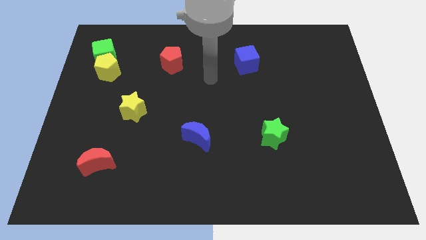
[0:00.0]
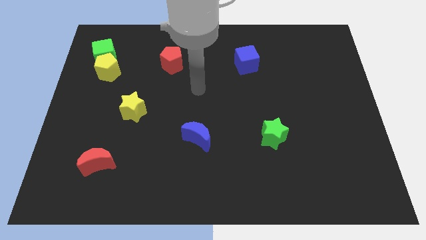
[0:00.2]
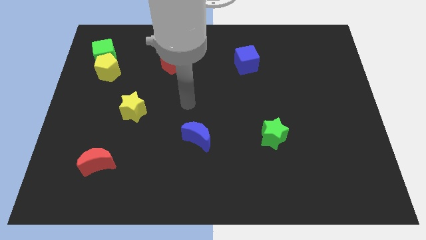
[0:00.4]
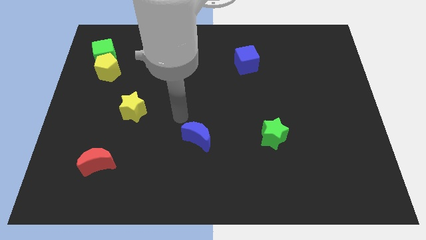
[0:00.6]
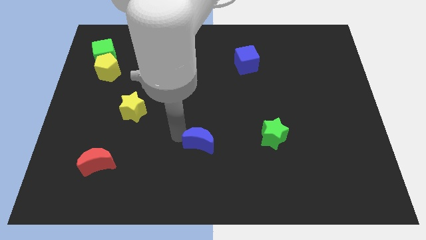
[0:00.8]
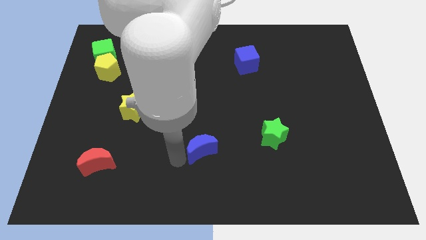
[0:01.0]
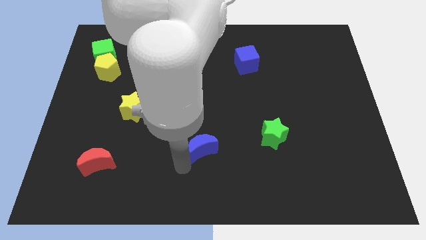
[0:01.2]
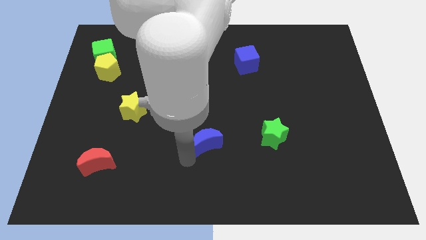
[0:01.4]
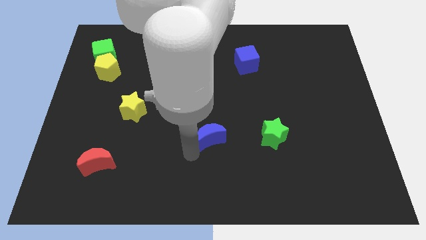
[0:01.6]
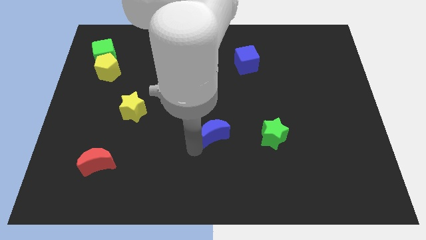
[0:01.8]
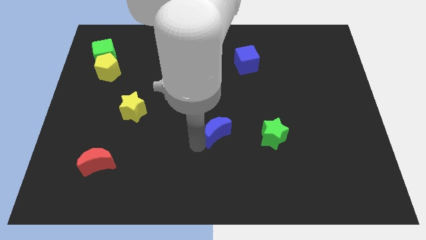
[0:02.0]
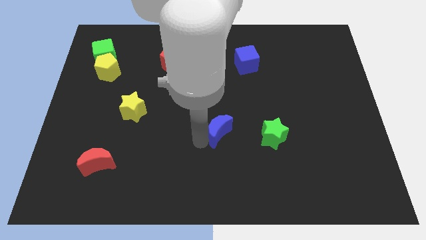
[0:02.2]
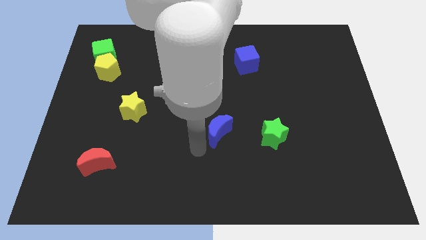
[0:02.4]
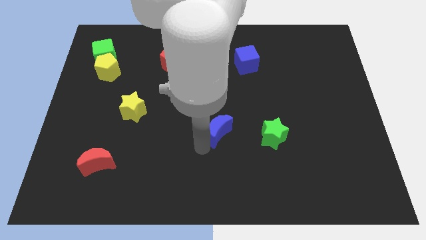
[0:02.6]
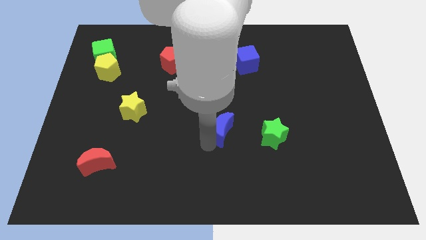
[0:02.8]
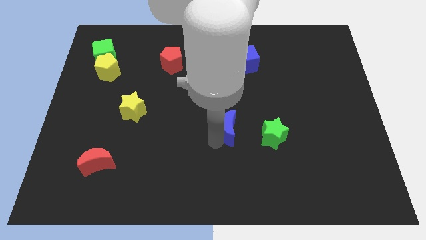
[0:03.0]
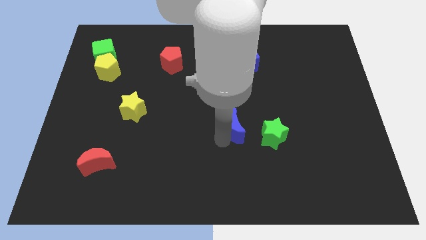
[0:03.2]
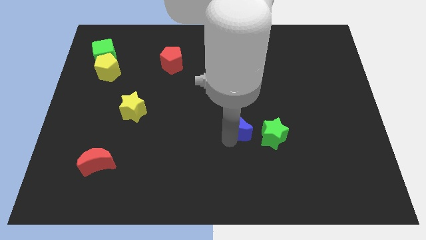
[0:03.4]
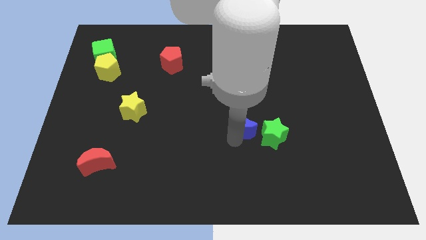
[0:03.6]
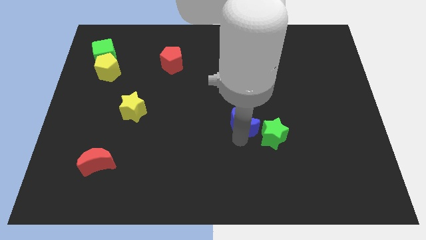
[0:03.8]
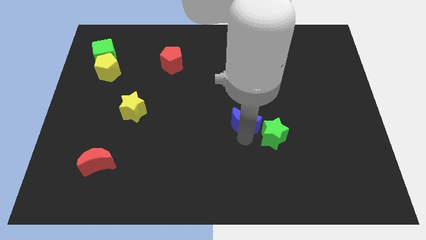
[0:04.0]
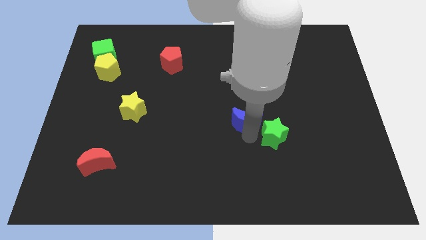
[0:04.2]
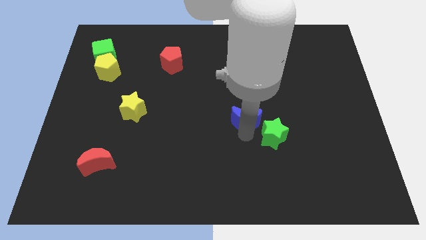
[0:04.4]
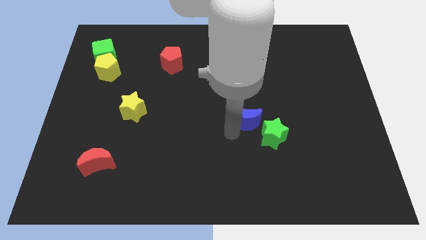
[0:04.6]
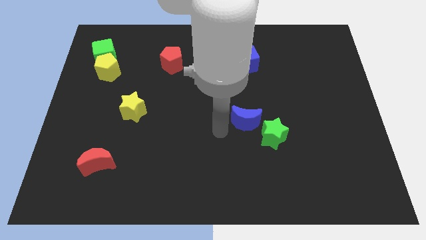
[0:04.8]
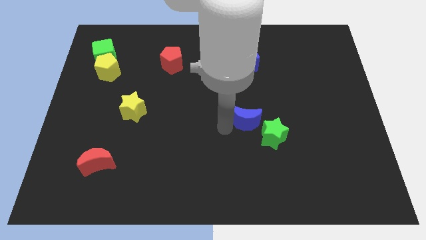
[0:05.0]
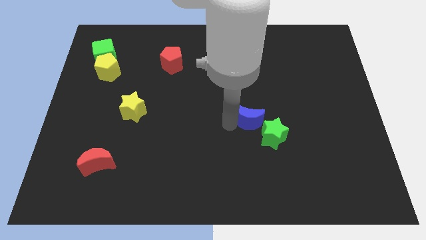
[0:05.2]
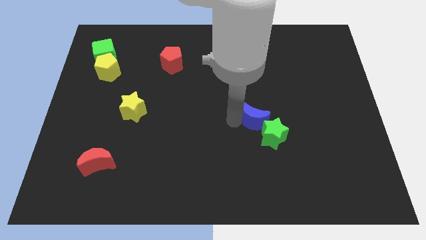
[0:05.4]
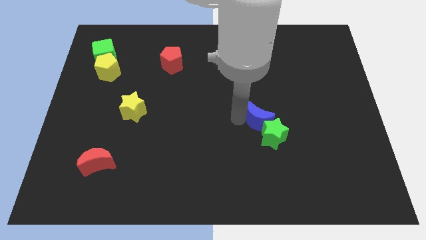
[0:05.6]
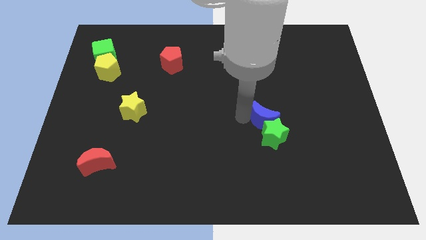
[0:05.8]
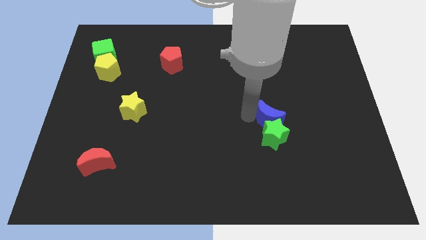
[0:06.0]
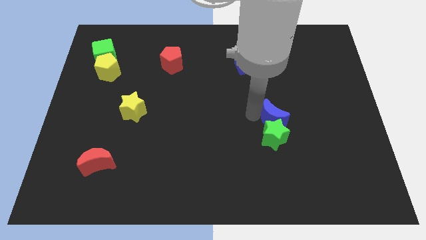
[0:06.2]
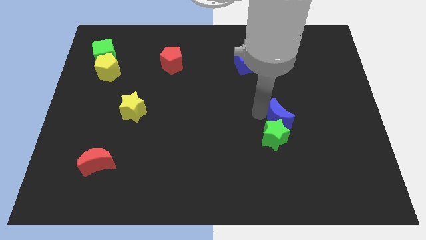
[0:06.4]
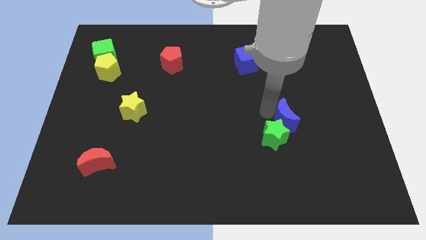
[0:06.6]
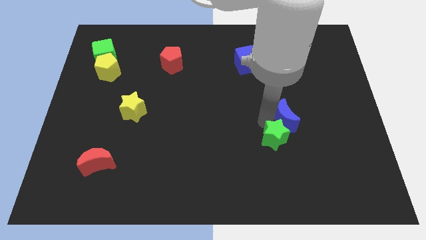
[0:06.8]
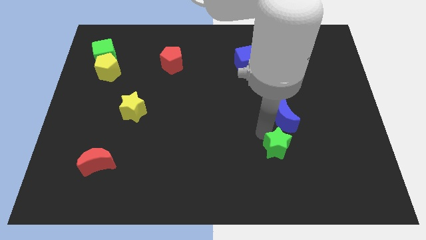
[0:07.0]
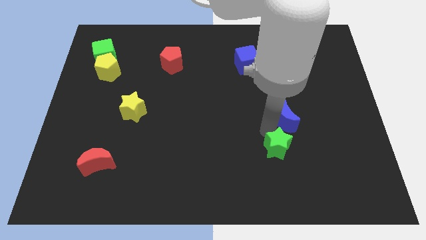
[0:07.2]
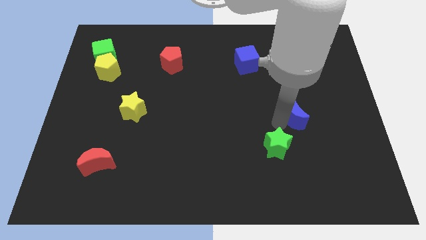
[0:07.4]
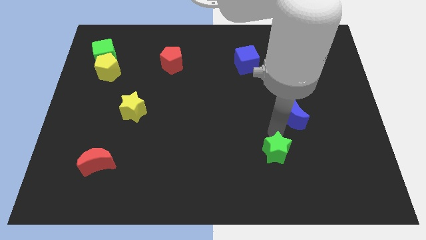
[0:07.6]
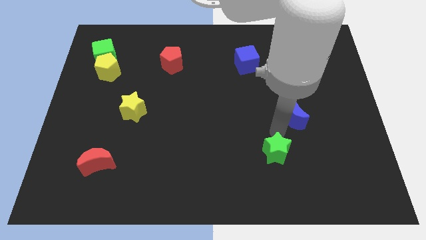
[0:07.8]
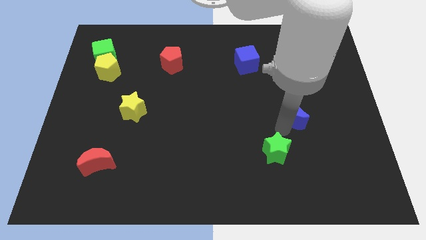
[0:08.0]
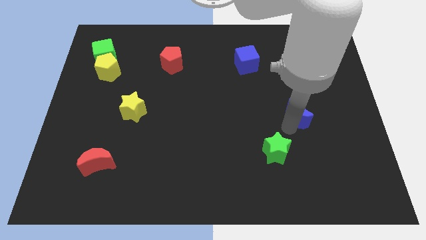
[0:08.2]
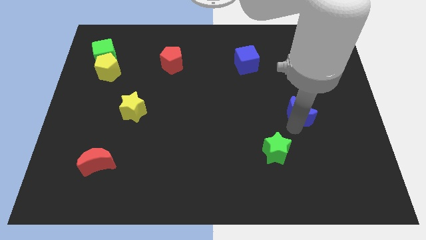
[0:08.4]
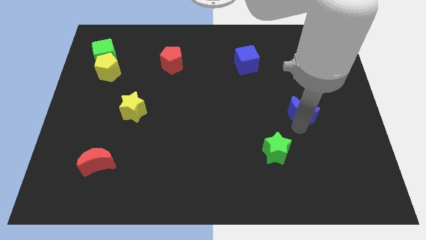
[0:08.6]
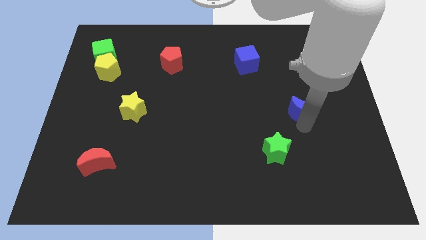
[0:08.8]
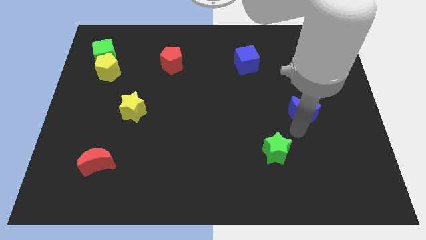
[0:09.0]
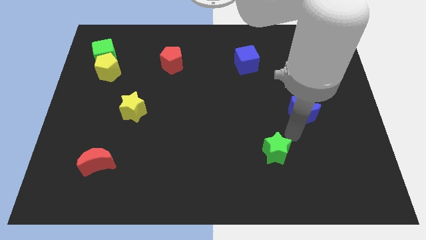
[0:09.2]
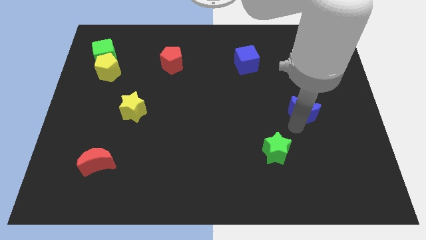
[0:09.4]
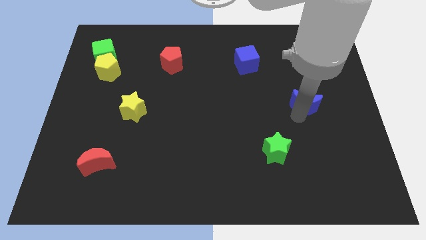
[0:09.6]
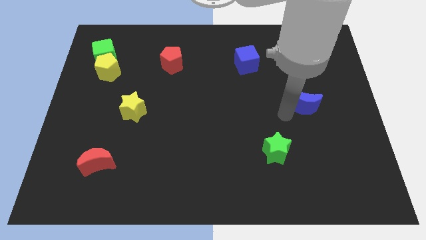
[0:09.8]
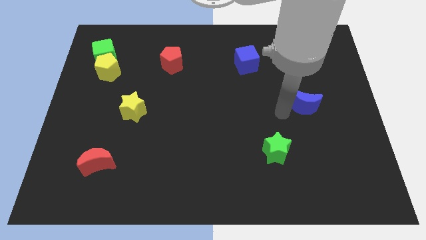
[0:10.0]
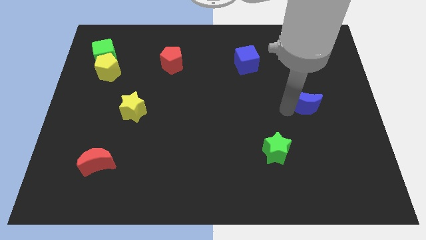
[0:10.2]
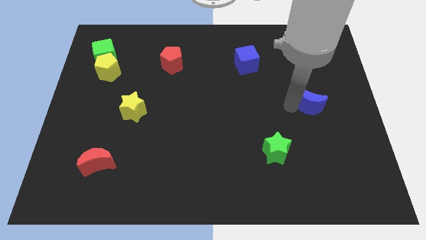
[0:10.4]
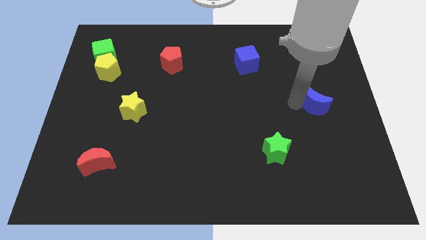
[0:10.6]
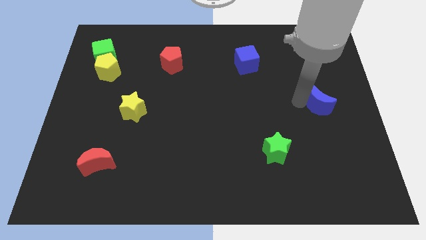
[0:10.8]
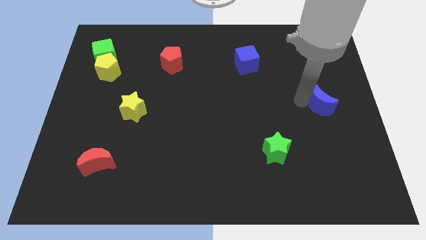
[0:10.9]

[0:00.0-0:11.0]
put the blue moon to the center right

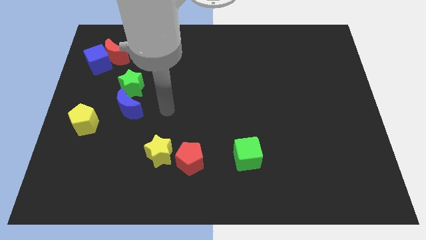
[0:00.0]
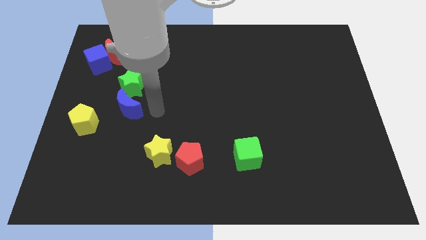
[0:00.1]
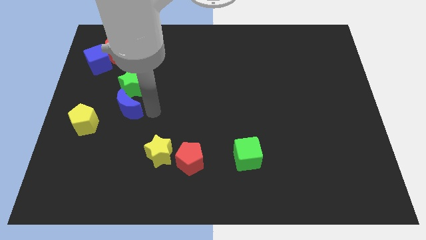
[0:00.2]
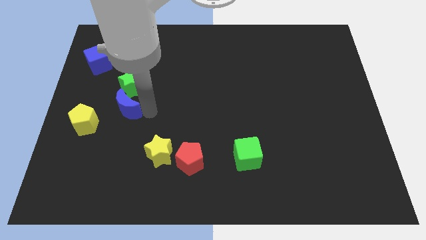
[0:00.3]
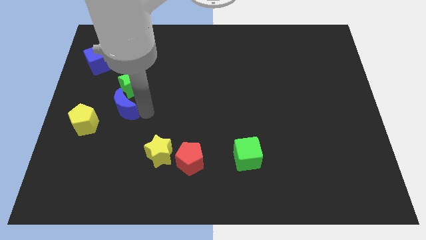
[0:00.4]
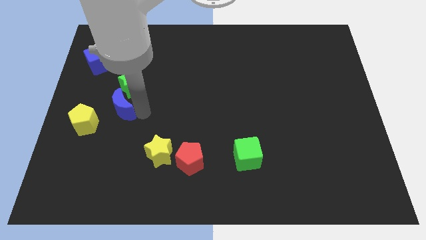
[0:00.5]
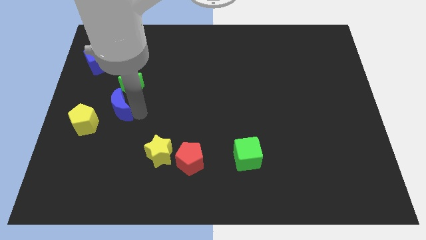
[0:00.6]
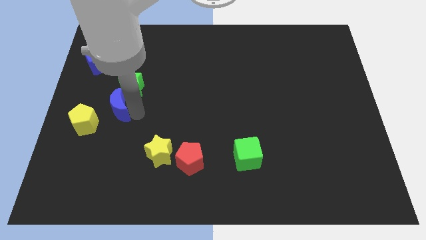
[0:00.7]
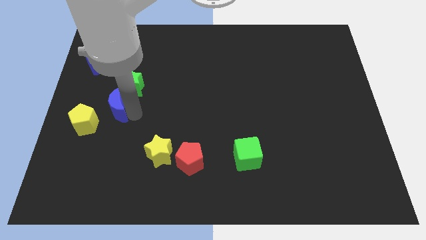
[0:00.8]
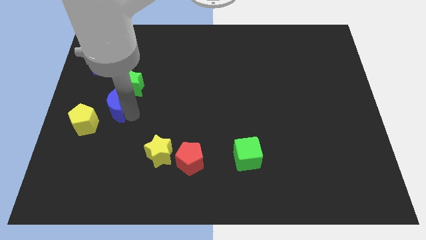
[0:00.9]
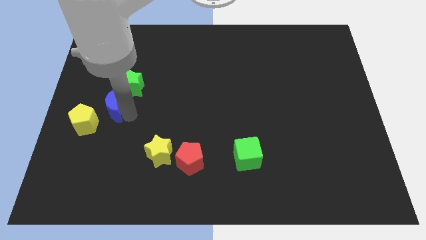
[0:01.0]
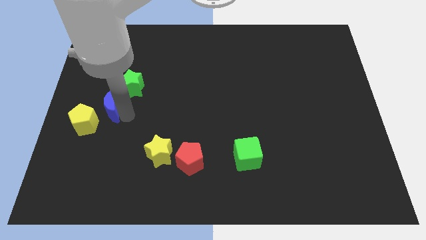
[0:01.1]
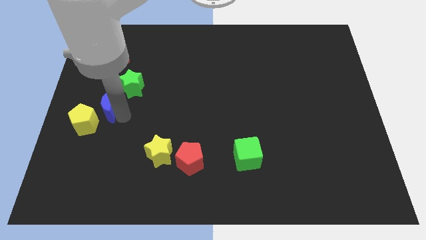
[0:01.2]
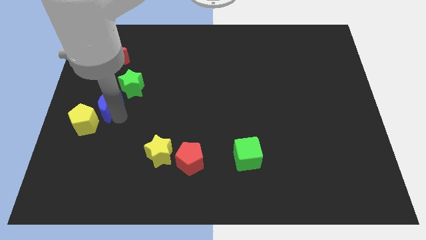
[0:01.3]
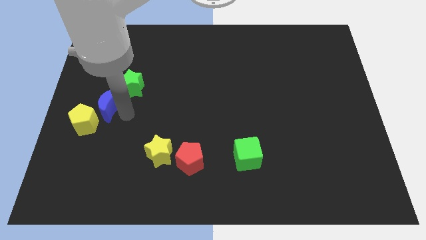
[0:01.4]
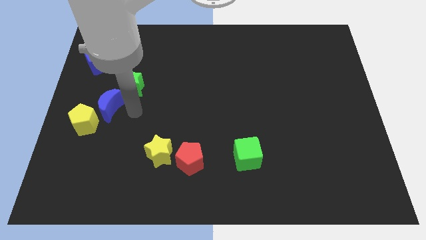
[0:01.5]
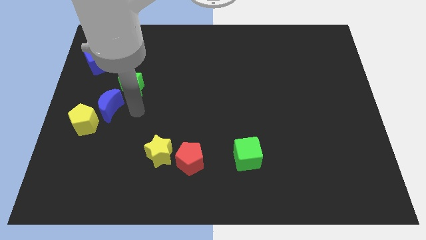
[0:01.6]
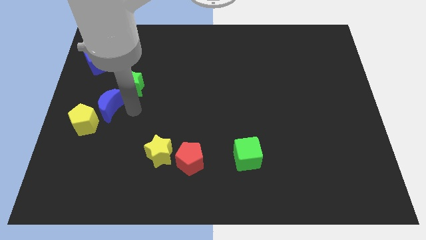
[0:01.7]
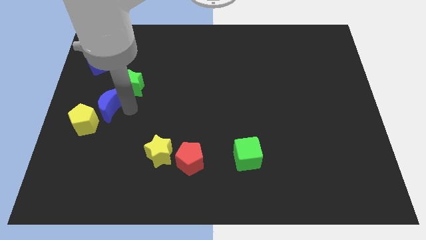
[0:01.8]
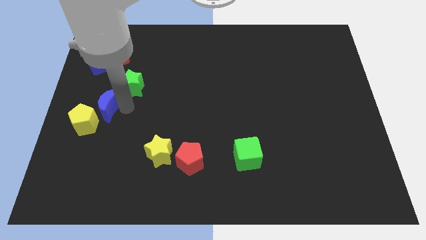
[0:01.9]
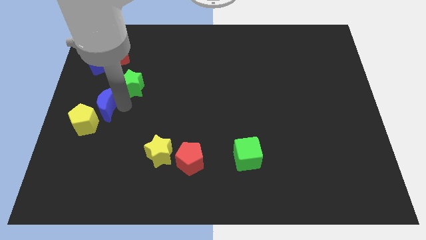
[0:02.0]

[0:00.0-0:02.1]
slide the blue moon to the left side of the board
